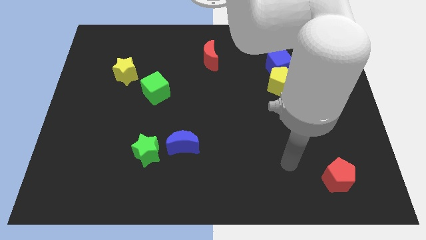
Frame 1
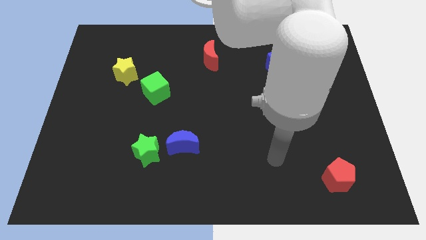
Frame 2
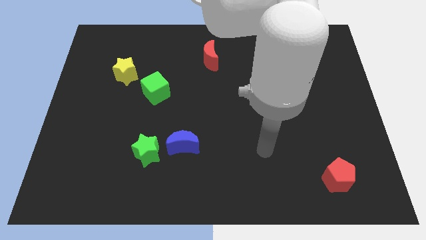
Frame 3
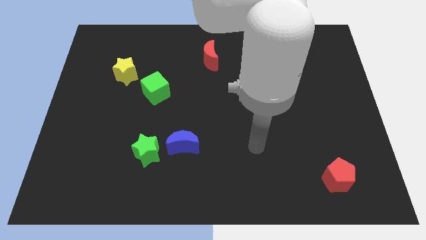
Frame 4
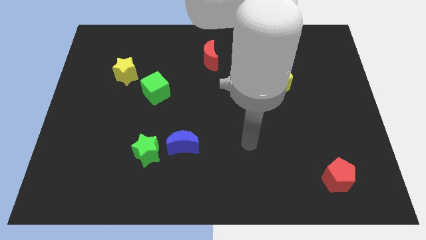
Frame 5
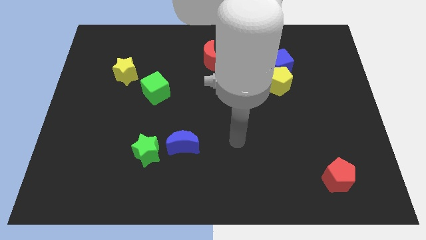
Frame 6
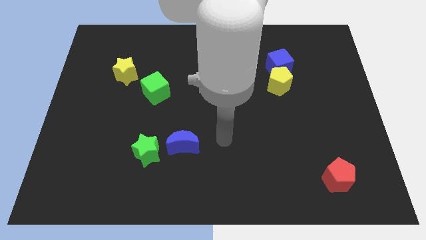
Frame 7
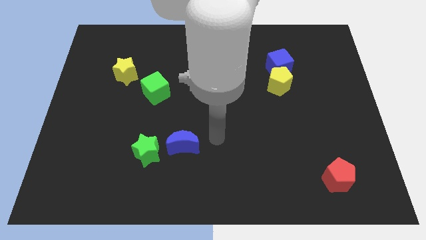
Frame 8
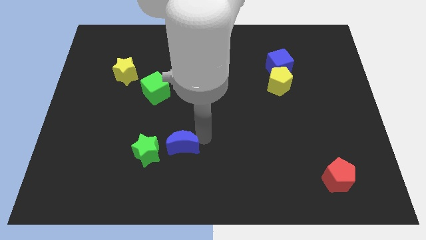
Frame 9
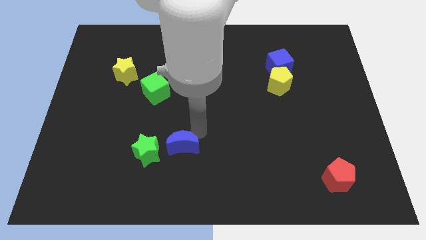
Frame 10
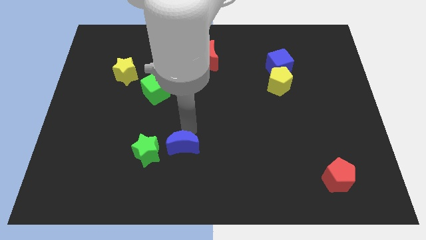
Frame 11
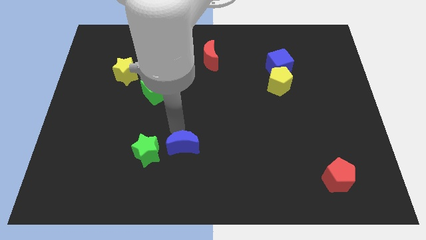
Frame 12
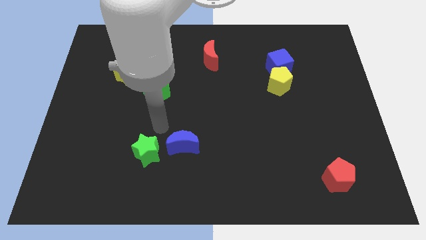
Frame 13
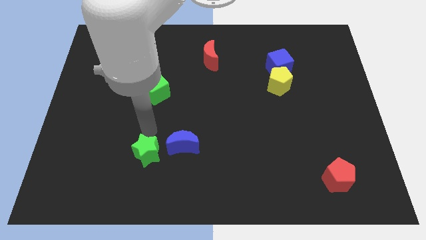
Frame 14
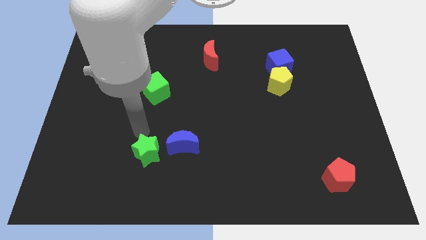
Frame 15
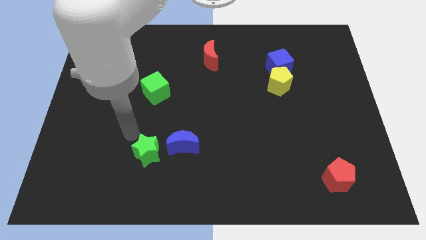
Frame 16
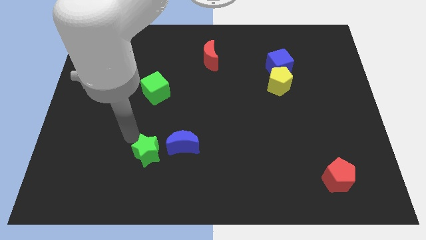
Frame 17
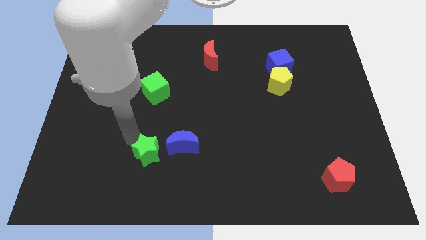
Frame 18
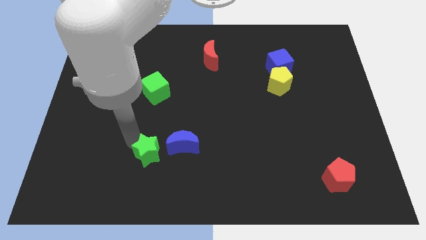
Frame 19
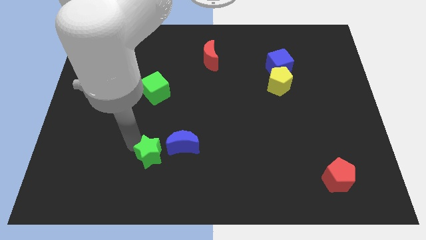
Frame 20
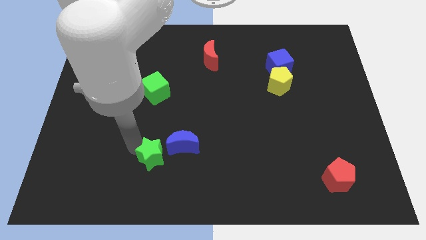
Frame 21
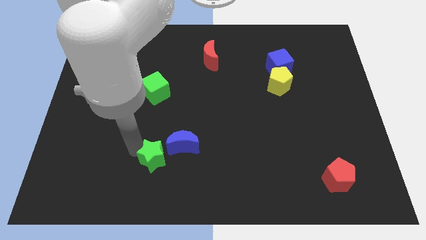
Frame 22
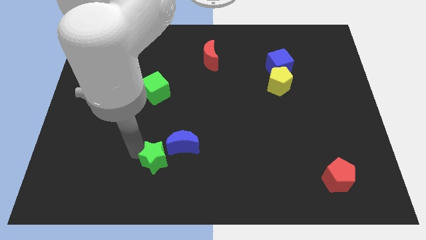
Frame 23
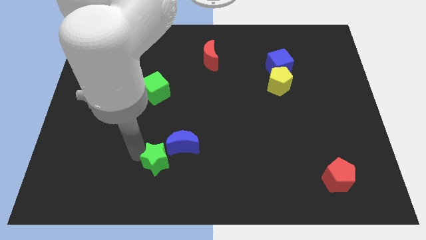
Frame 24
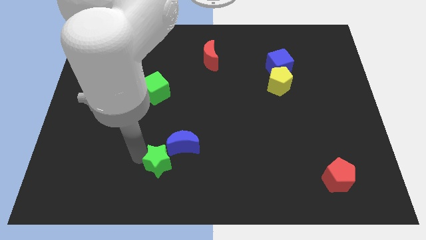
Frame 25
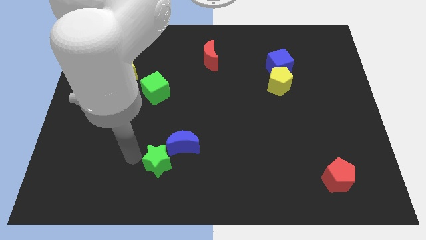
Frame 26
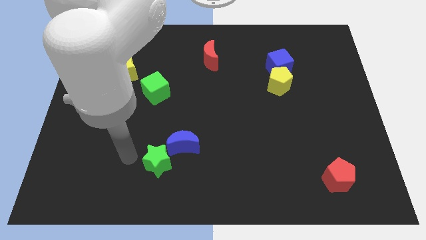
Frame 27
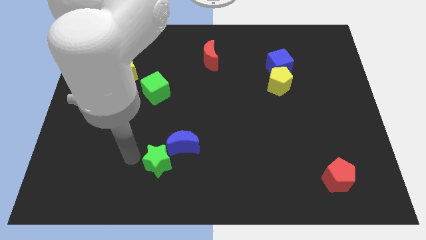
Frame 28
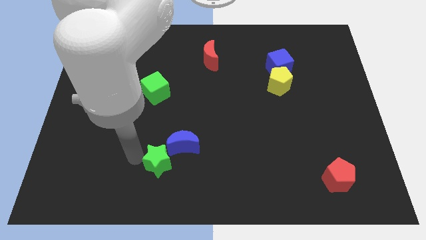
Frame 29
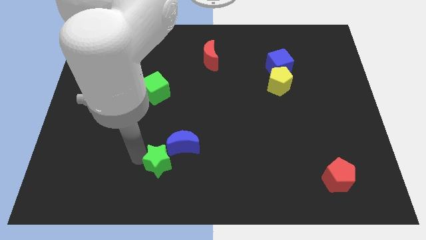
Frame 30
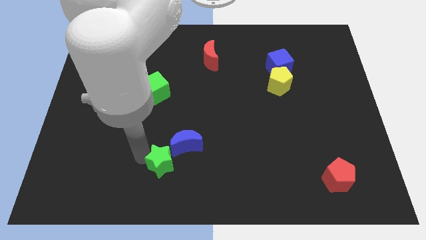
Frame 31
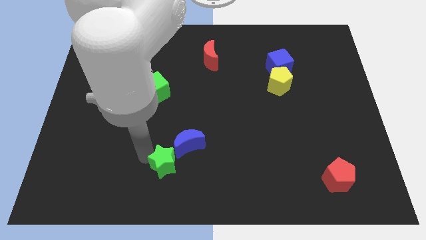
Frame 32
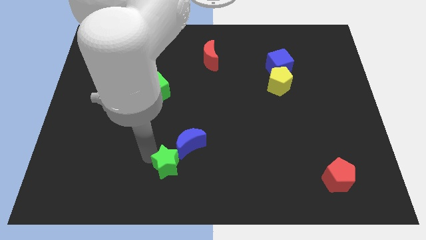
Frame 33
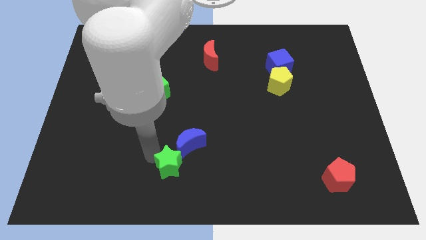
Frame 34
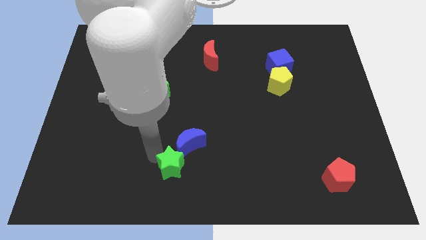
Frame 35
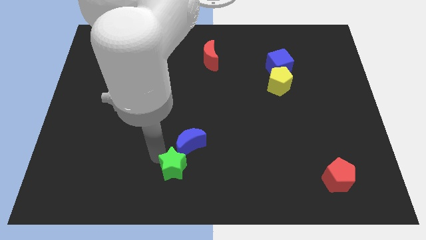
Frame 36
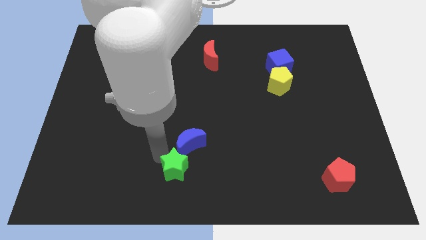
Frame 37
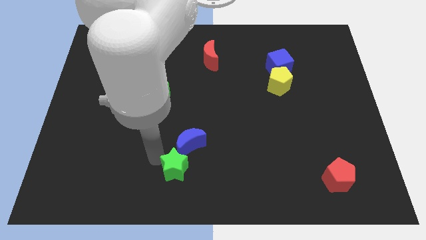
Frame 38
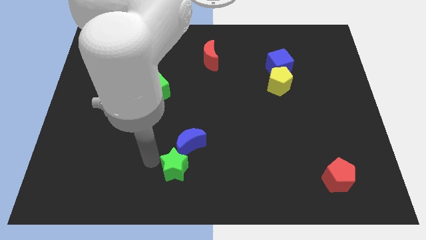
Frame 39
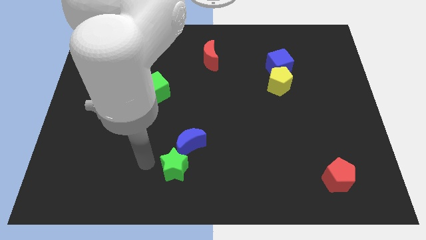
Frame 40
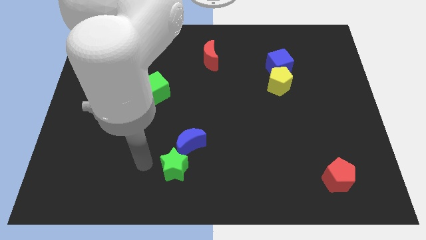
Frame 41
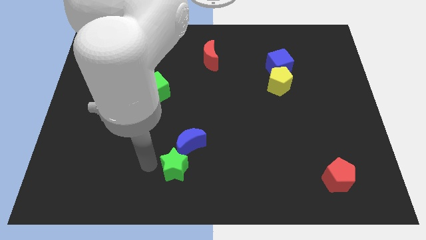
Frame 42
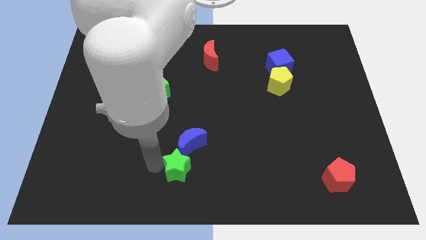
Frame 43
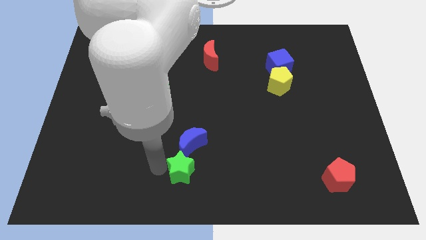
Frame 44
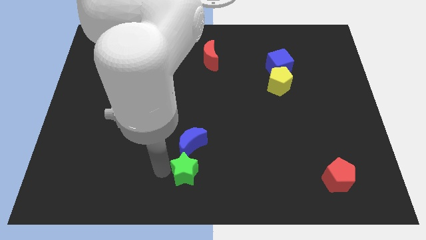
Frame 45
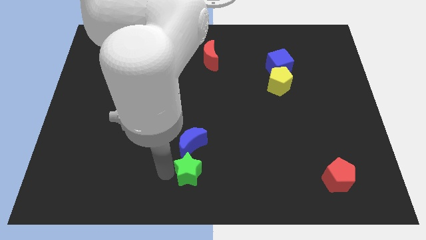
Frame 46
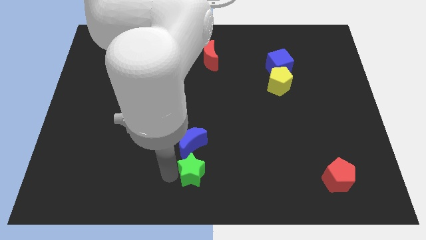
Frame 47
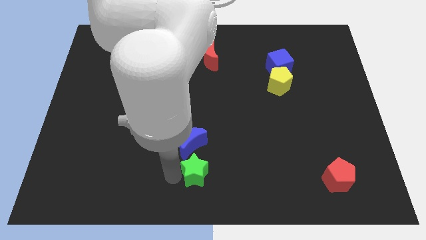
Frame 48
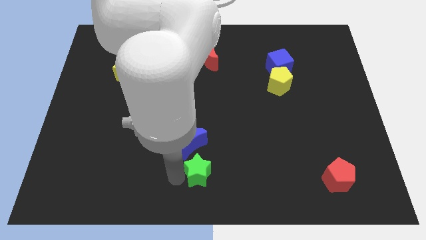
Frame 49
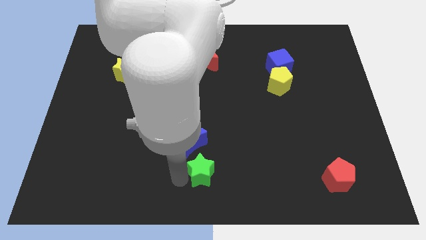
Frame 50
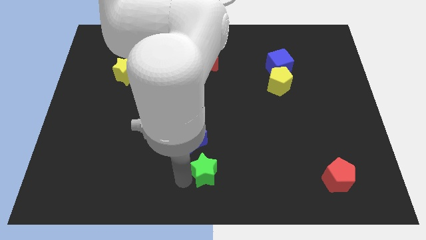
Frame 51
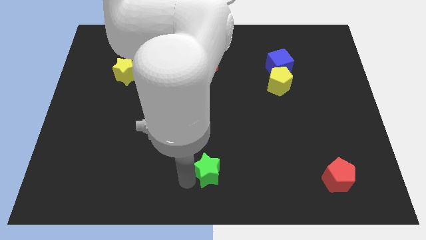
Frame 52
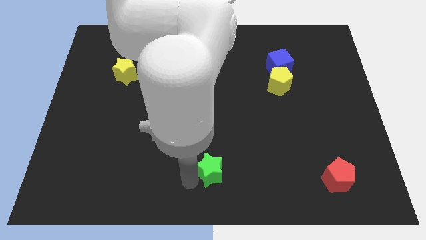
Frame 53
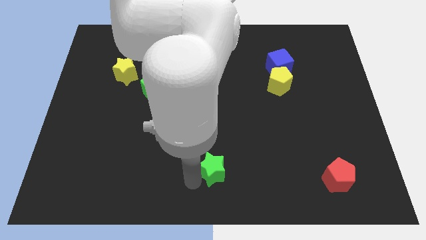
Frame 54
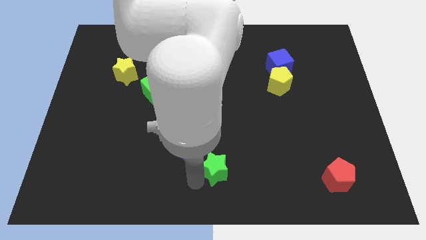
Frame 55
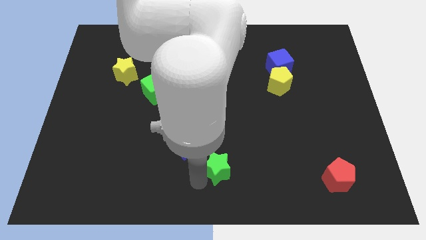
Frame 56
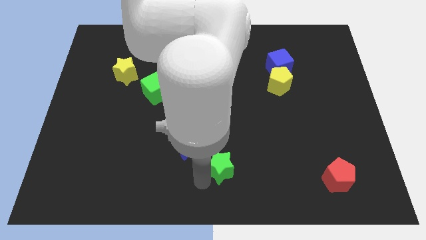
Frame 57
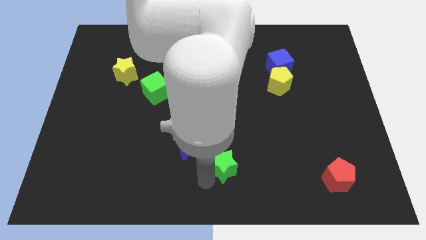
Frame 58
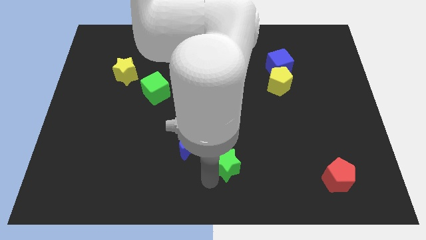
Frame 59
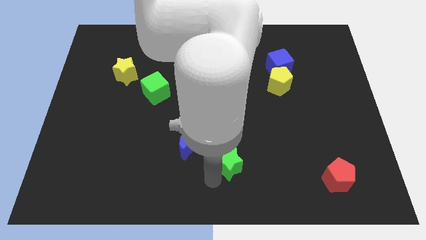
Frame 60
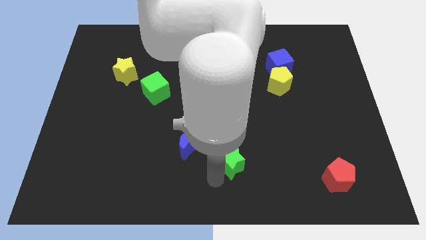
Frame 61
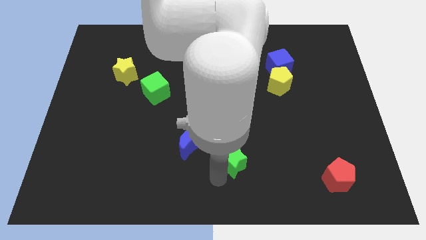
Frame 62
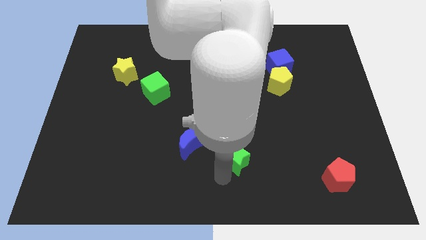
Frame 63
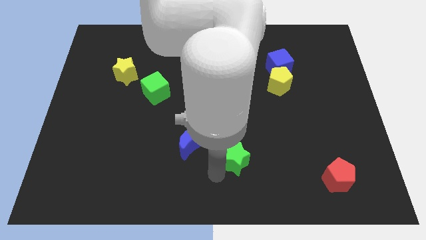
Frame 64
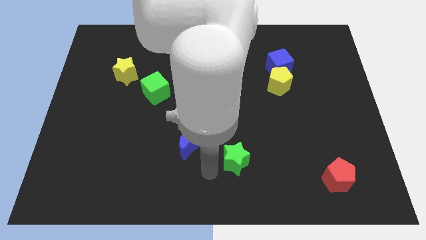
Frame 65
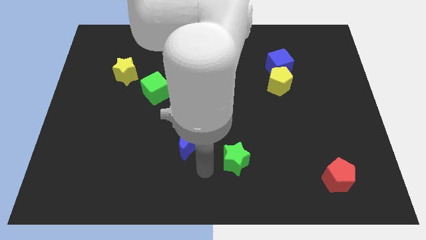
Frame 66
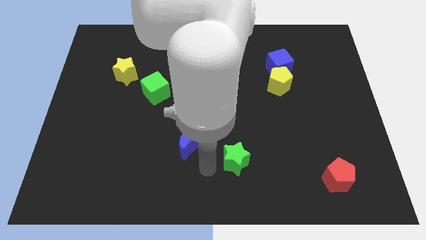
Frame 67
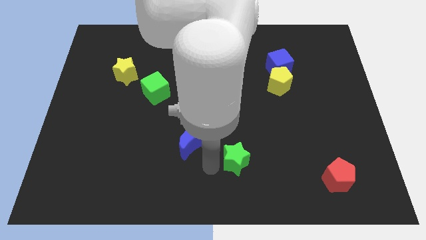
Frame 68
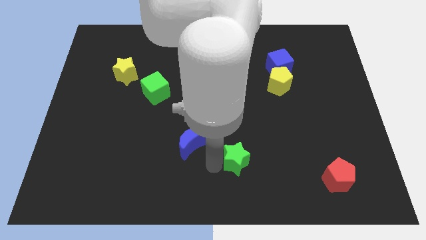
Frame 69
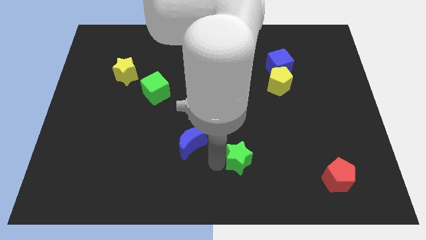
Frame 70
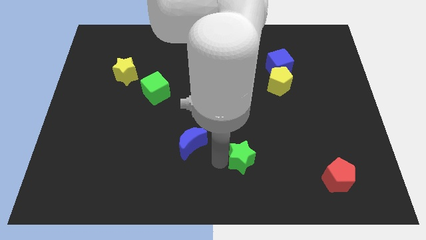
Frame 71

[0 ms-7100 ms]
push the green star to the right

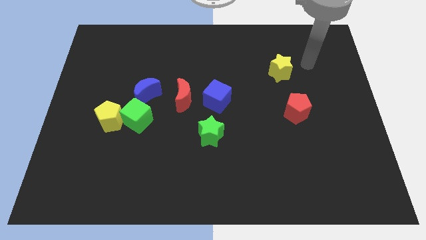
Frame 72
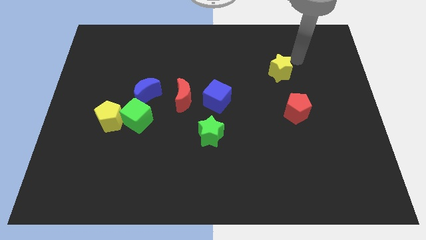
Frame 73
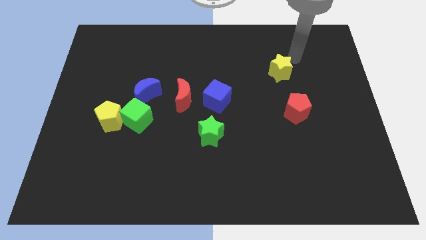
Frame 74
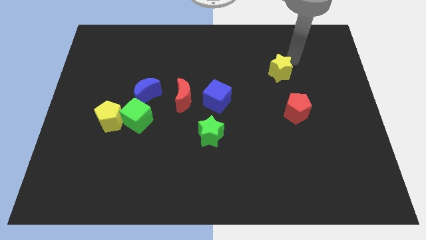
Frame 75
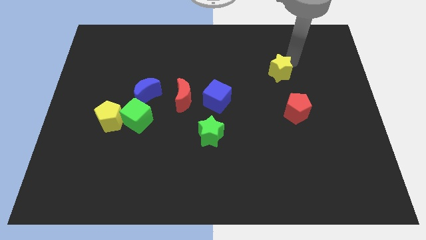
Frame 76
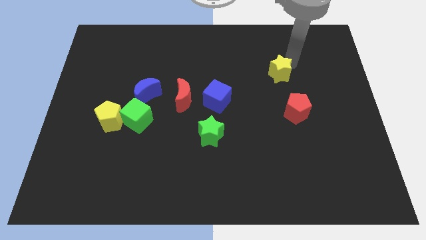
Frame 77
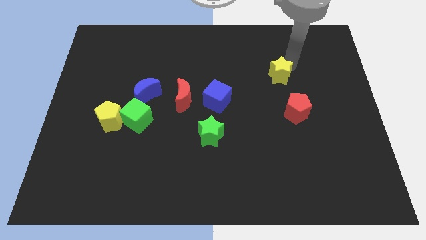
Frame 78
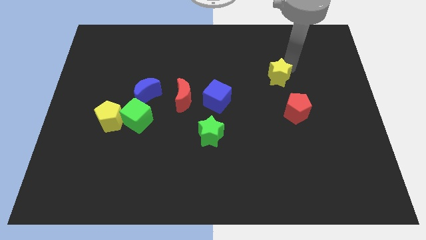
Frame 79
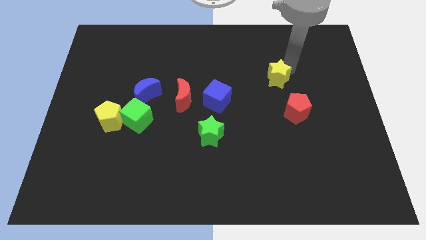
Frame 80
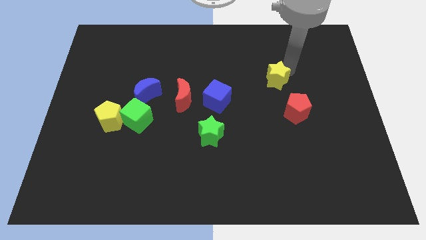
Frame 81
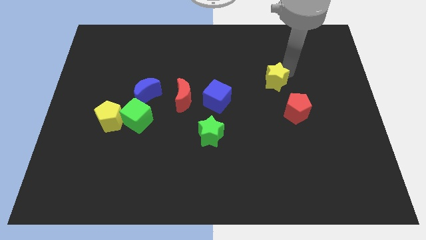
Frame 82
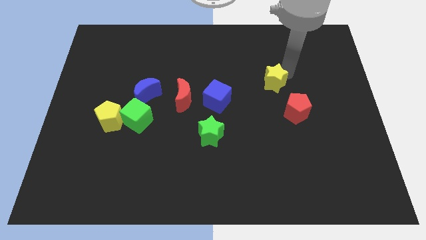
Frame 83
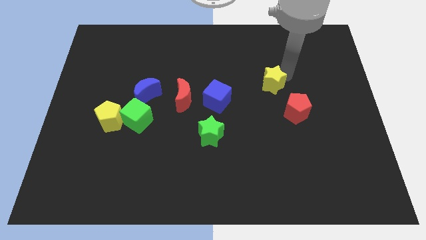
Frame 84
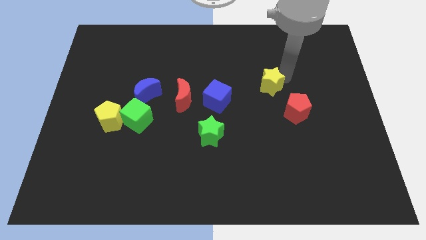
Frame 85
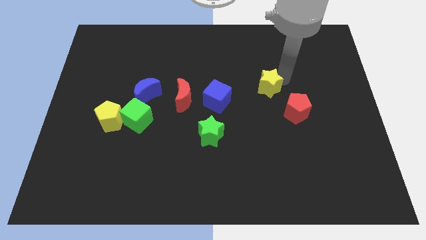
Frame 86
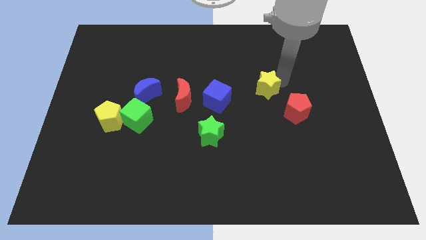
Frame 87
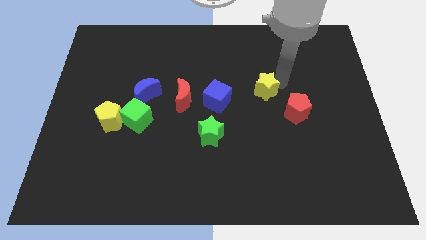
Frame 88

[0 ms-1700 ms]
slightly push the yellow star down and then to the left
